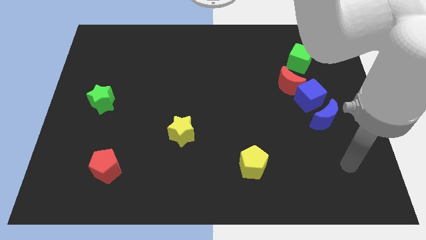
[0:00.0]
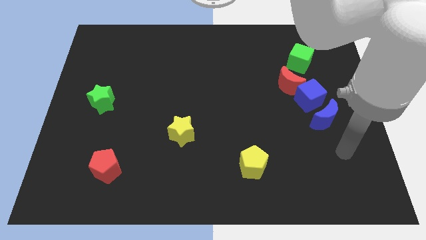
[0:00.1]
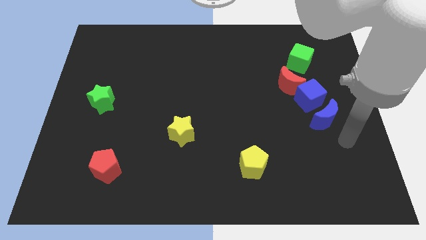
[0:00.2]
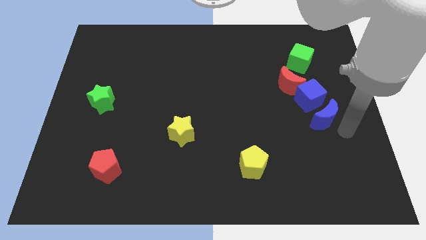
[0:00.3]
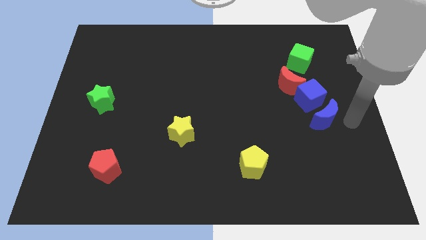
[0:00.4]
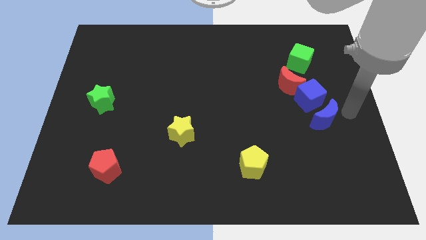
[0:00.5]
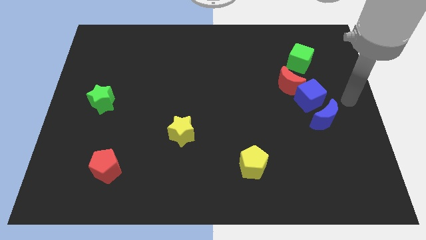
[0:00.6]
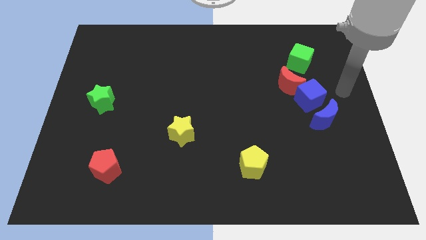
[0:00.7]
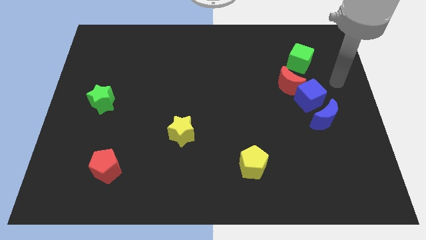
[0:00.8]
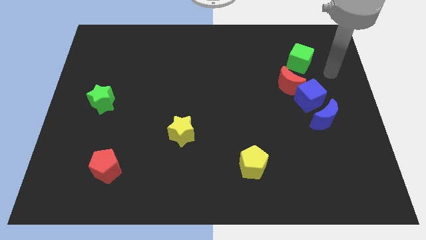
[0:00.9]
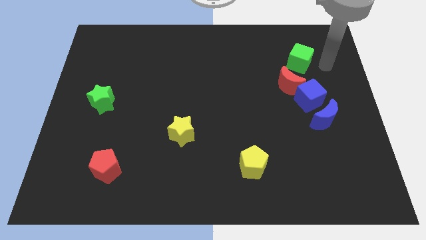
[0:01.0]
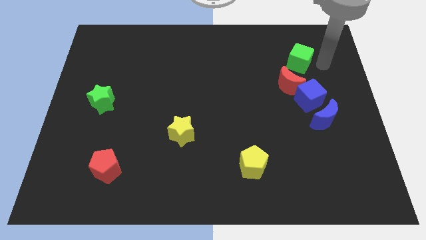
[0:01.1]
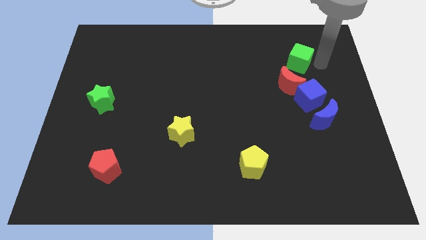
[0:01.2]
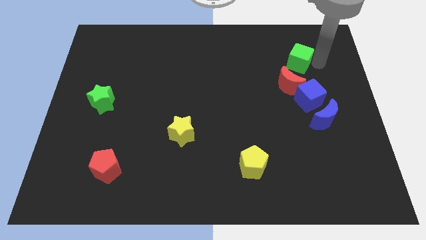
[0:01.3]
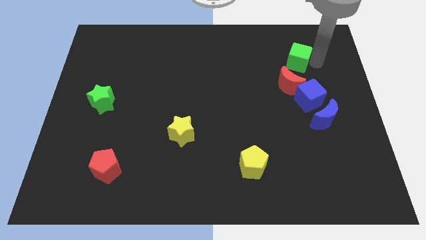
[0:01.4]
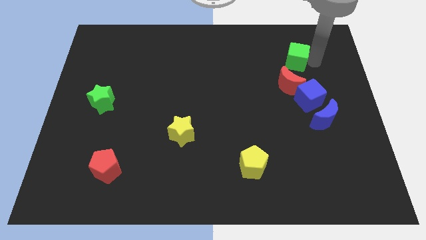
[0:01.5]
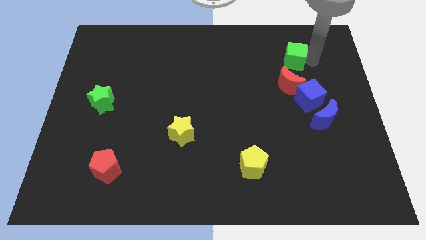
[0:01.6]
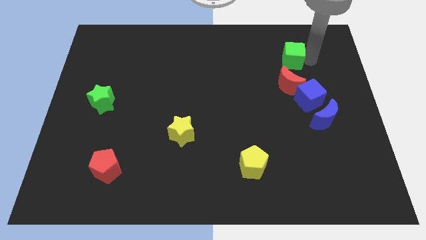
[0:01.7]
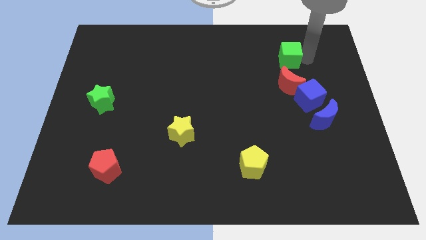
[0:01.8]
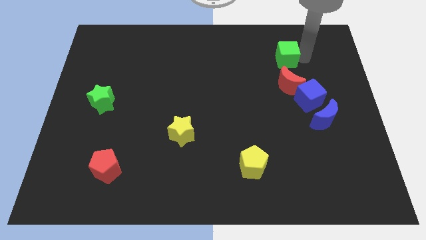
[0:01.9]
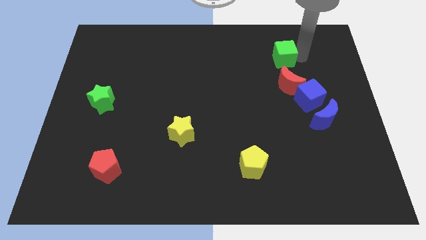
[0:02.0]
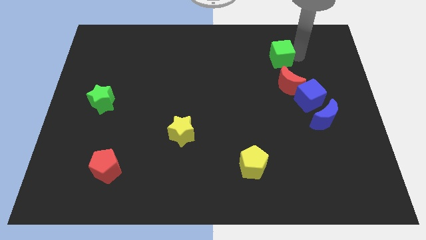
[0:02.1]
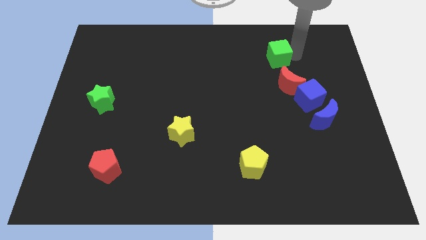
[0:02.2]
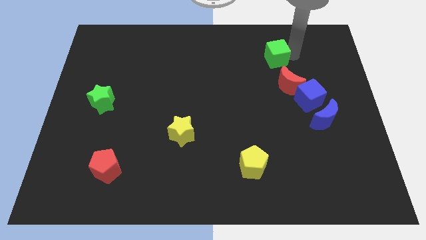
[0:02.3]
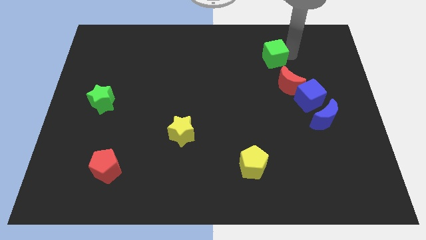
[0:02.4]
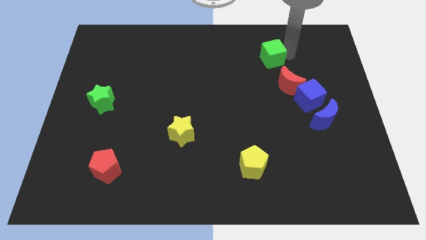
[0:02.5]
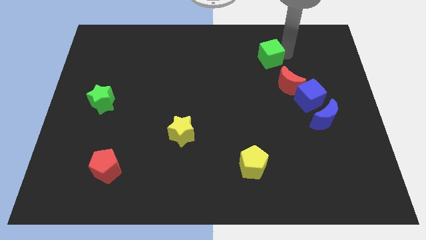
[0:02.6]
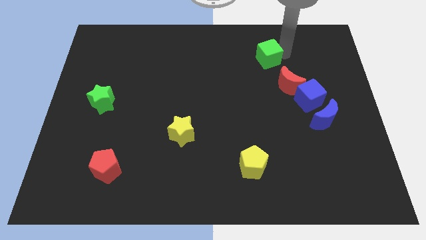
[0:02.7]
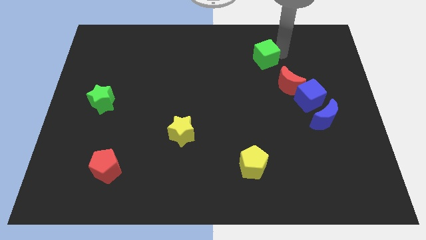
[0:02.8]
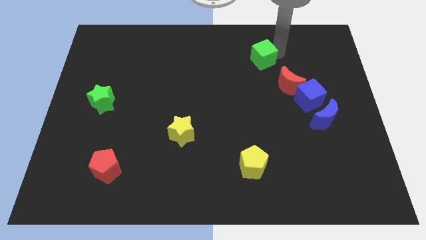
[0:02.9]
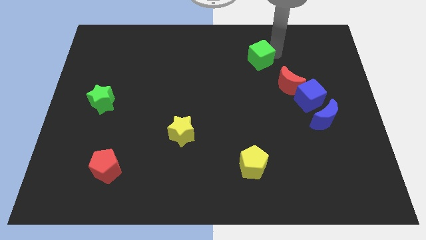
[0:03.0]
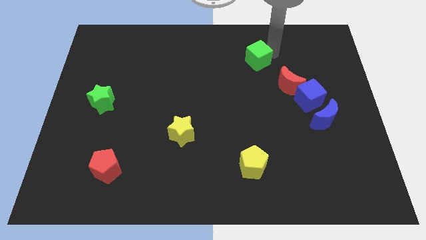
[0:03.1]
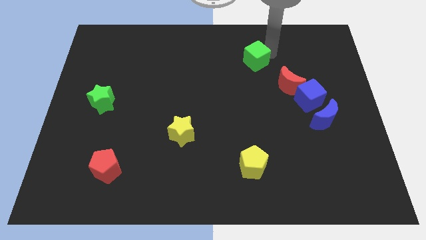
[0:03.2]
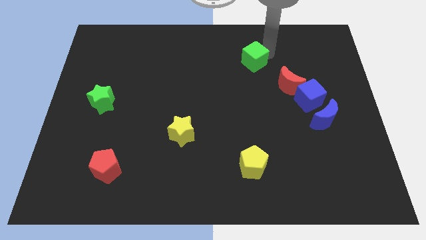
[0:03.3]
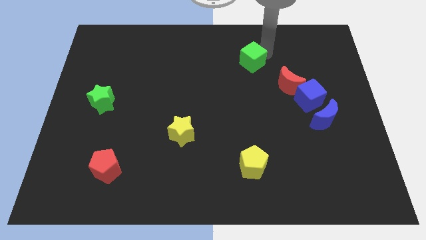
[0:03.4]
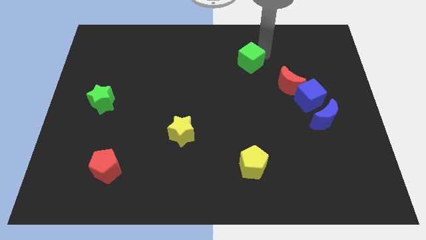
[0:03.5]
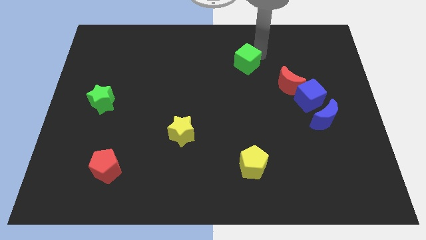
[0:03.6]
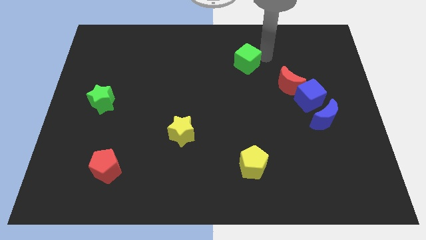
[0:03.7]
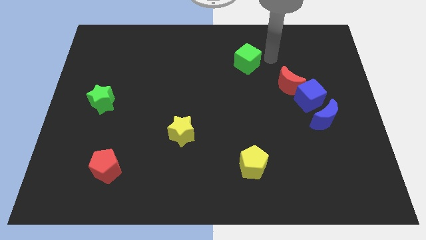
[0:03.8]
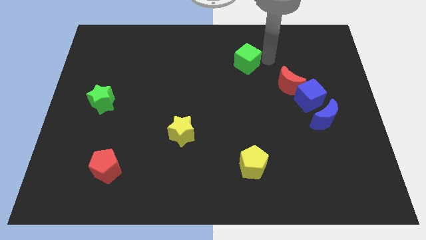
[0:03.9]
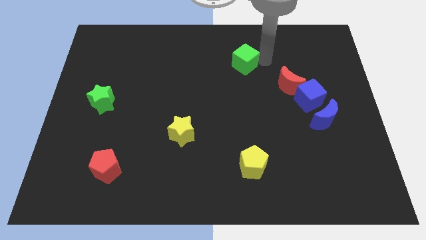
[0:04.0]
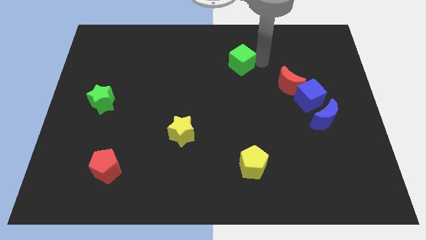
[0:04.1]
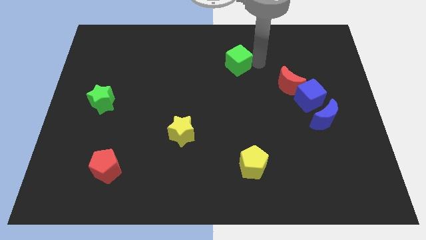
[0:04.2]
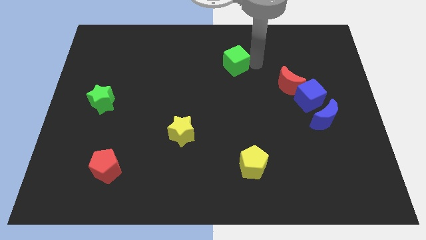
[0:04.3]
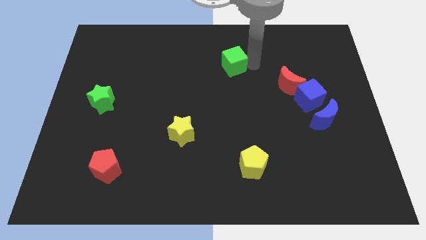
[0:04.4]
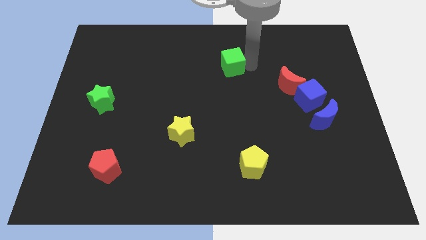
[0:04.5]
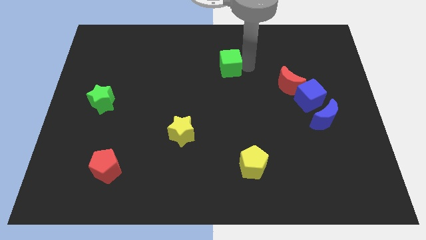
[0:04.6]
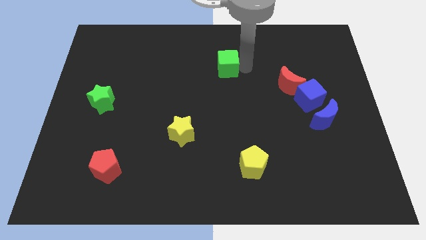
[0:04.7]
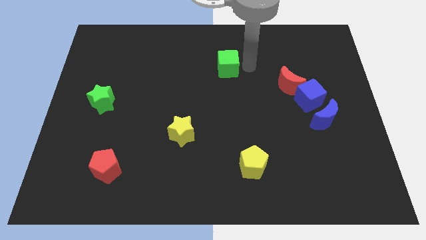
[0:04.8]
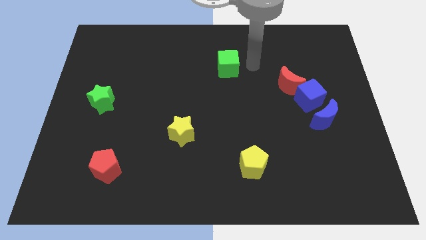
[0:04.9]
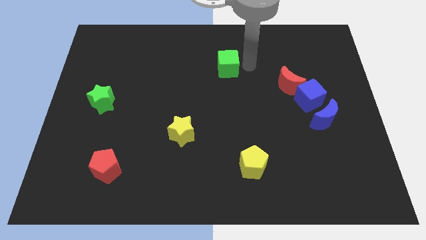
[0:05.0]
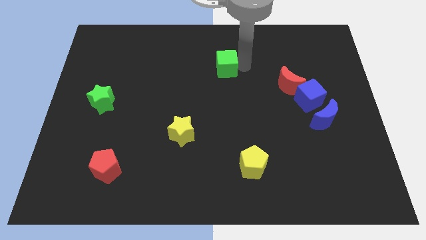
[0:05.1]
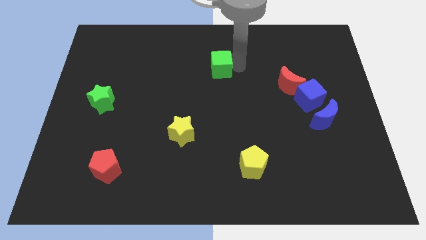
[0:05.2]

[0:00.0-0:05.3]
push the green cube left

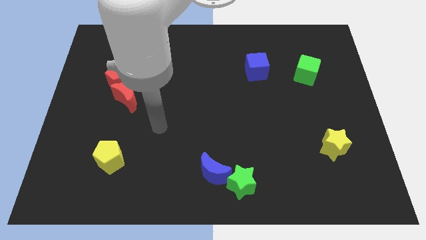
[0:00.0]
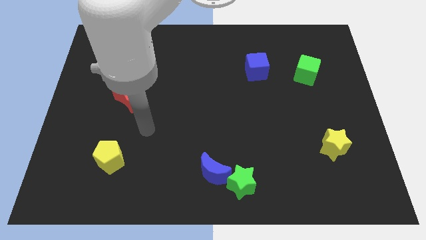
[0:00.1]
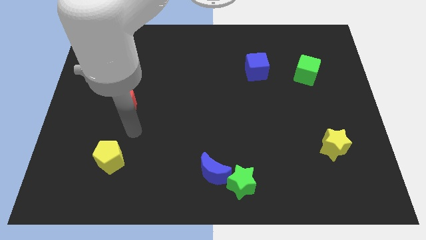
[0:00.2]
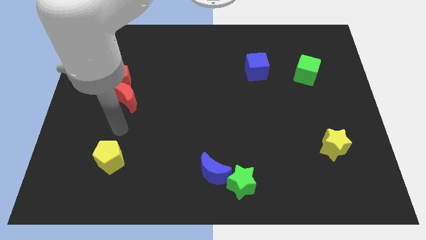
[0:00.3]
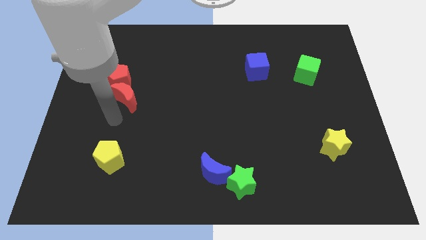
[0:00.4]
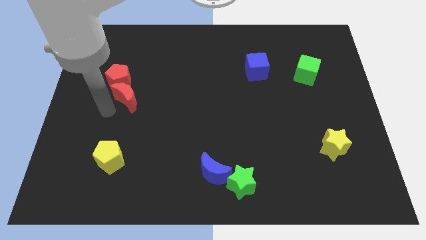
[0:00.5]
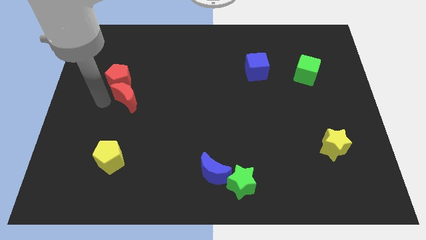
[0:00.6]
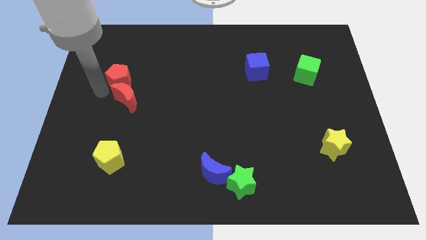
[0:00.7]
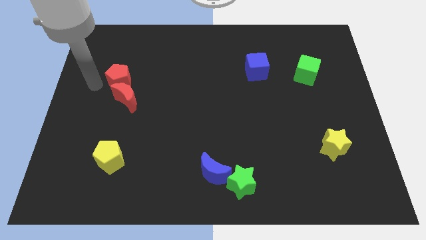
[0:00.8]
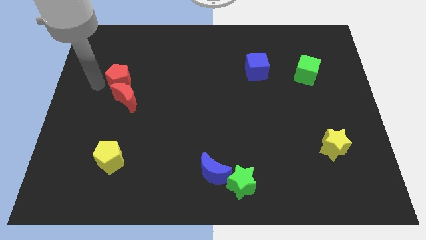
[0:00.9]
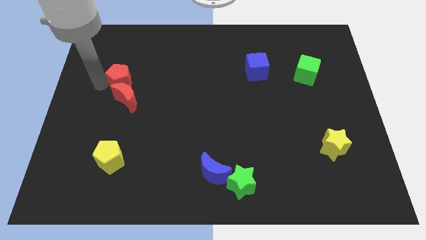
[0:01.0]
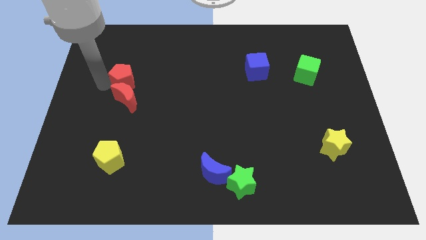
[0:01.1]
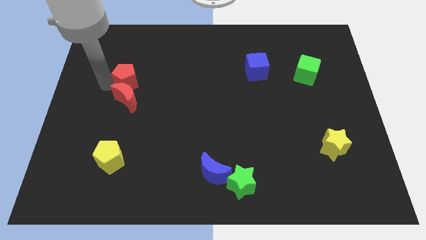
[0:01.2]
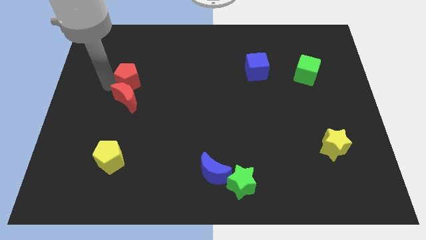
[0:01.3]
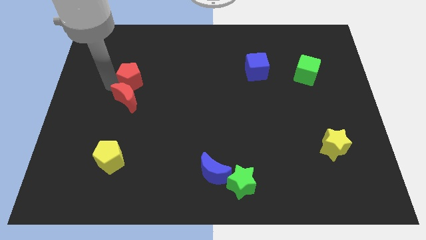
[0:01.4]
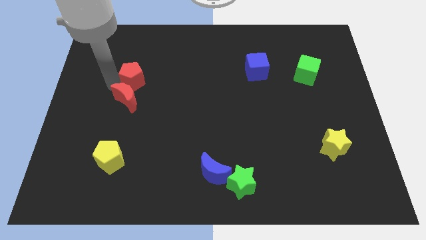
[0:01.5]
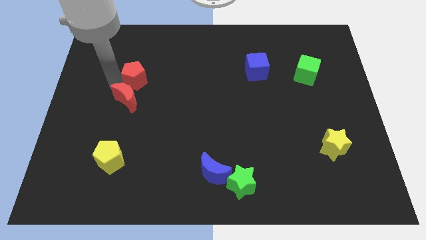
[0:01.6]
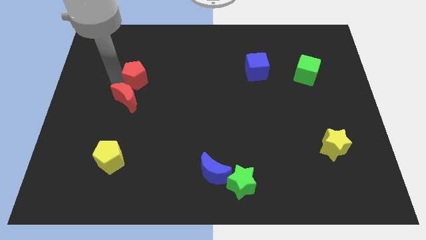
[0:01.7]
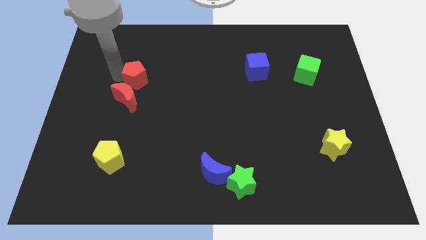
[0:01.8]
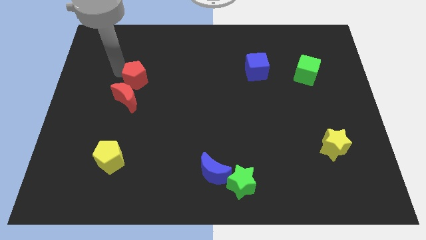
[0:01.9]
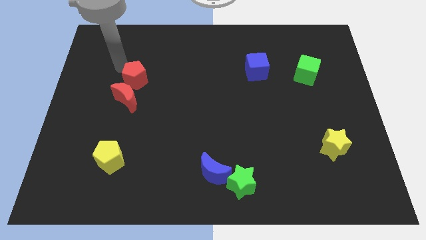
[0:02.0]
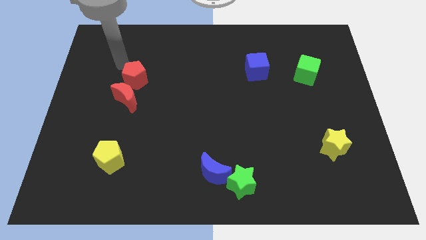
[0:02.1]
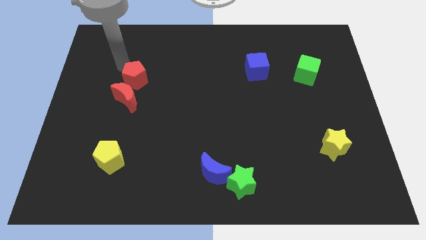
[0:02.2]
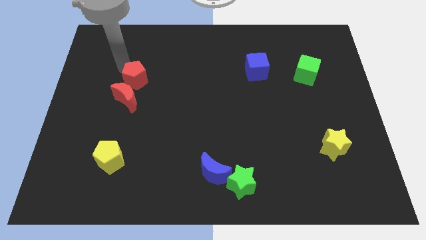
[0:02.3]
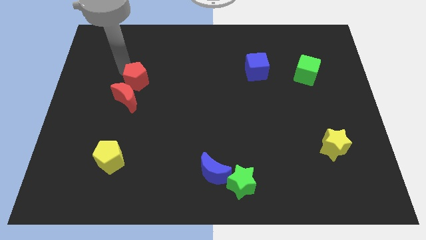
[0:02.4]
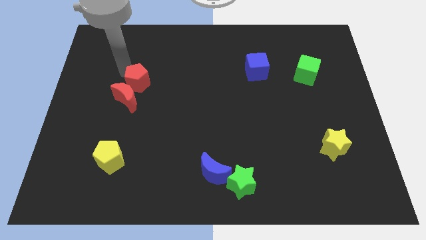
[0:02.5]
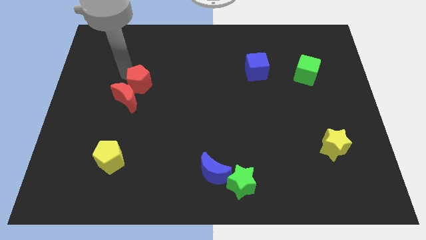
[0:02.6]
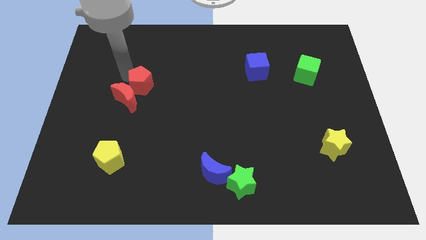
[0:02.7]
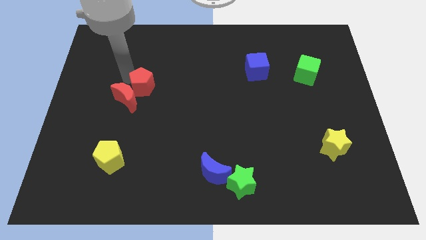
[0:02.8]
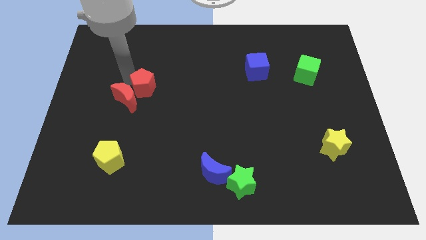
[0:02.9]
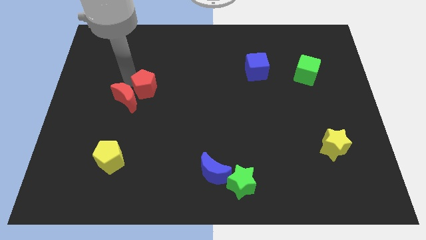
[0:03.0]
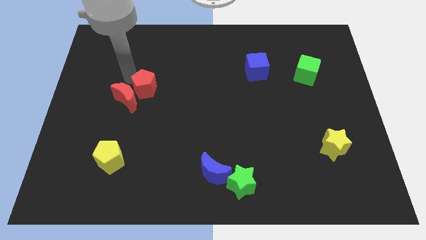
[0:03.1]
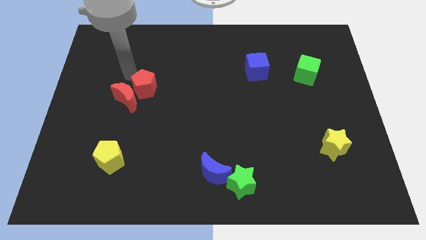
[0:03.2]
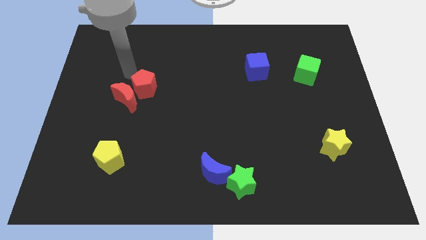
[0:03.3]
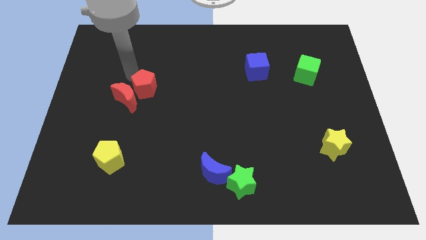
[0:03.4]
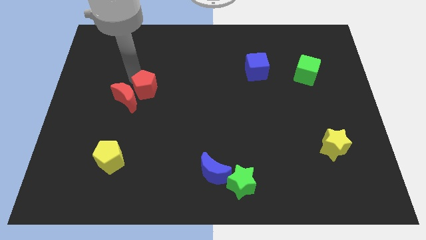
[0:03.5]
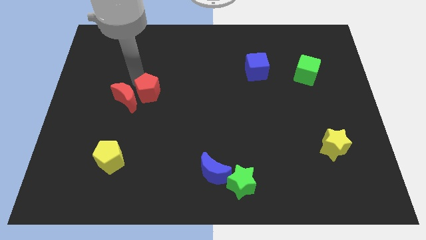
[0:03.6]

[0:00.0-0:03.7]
slightly push the red pentagon down and then to the right
